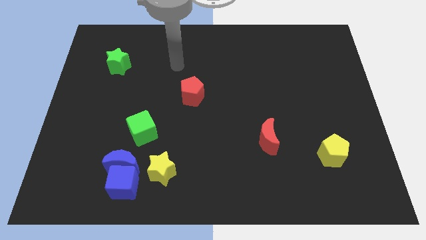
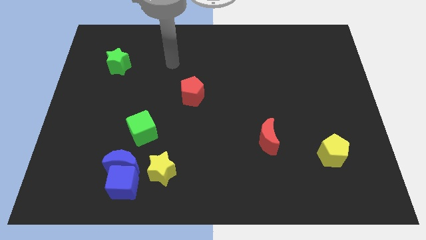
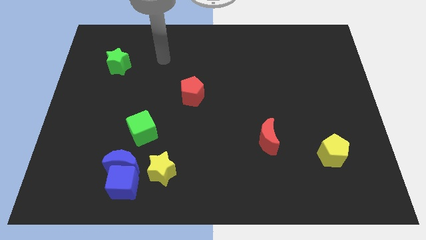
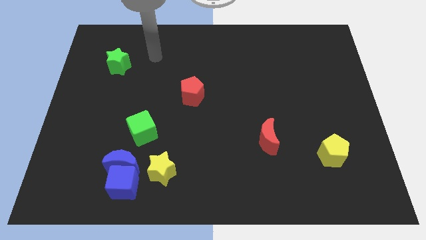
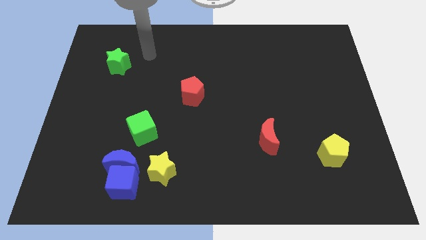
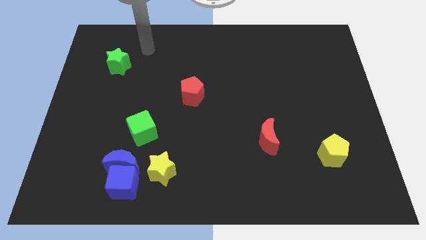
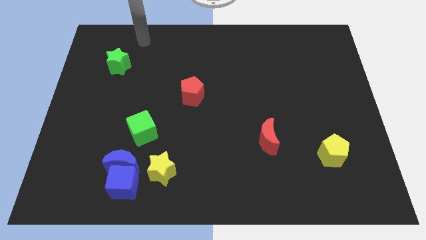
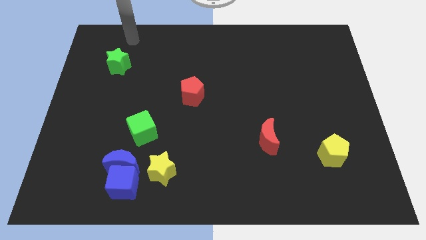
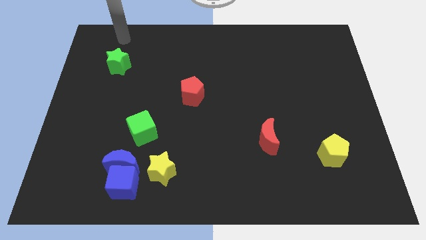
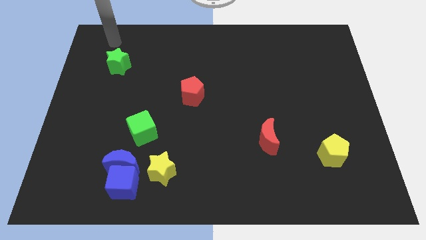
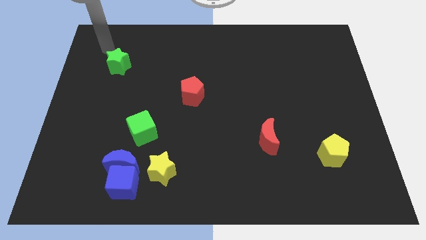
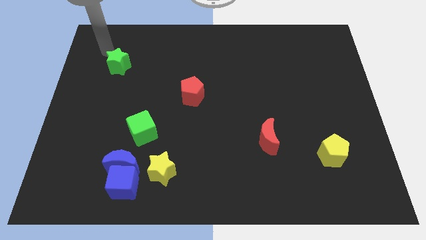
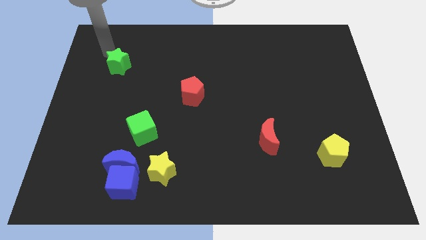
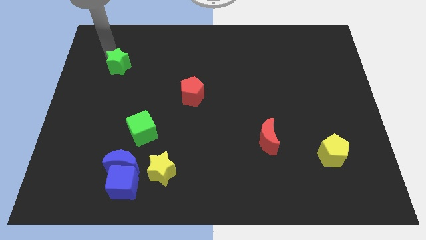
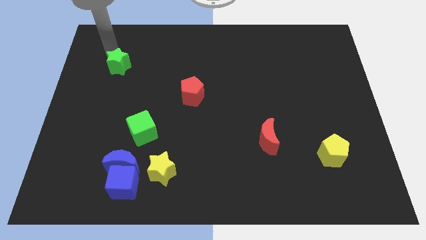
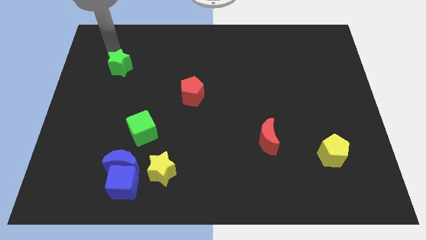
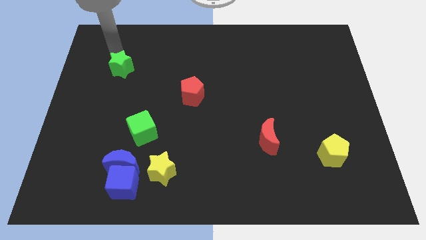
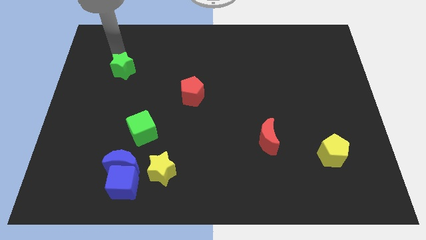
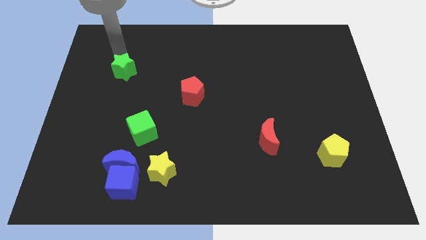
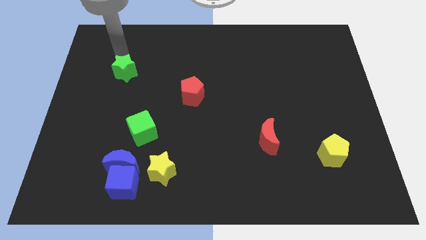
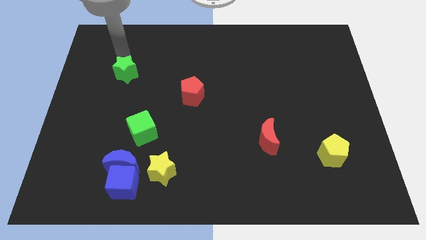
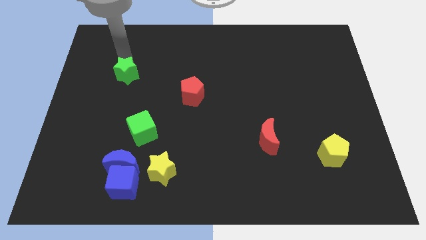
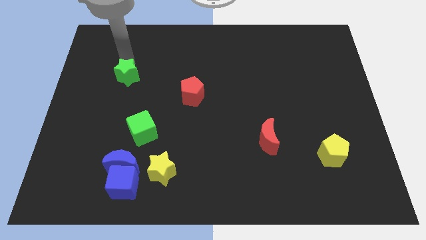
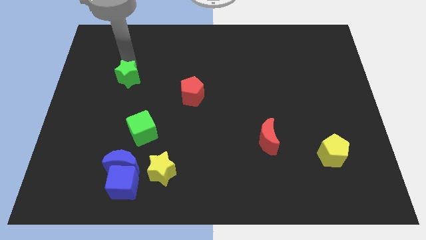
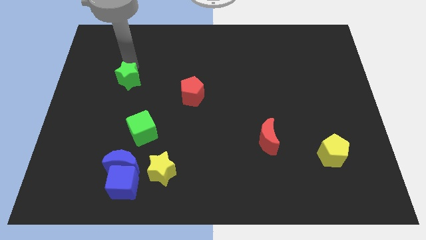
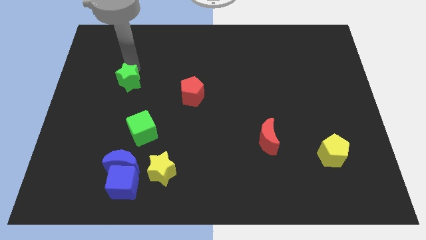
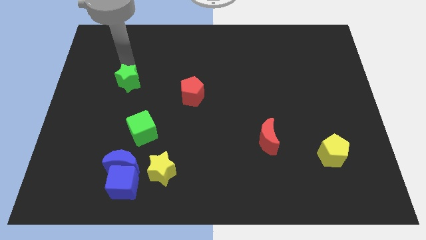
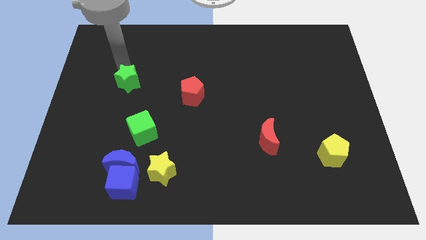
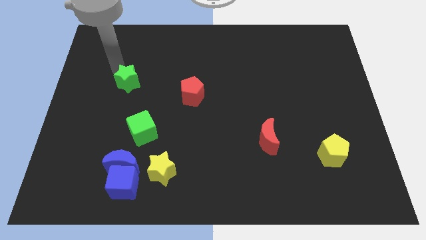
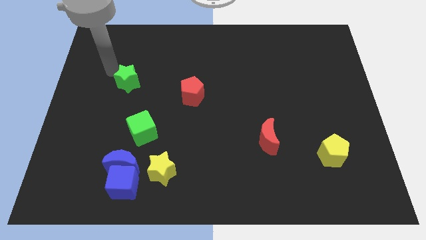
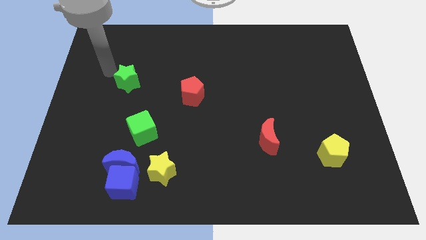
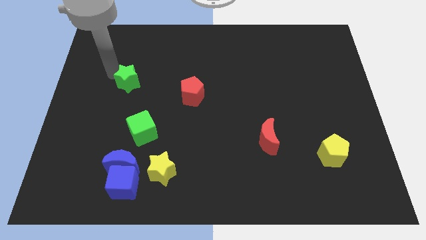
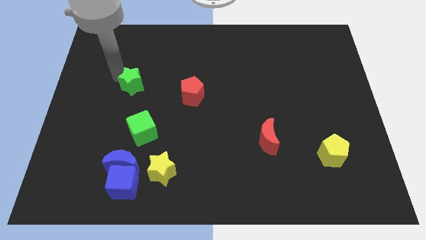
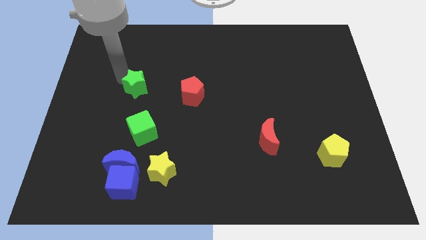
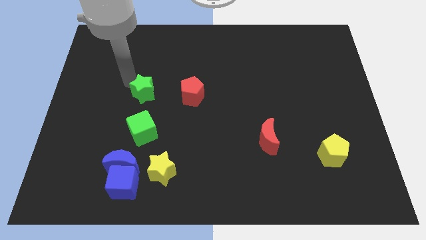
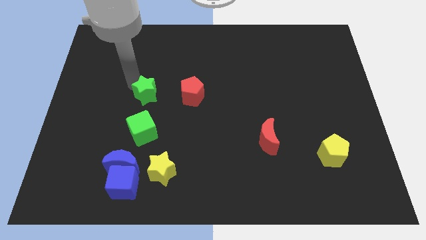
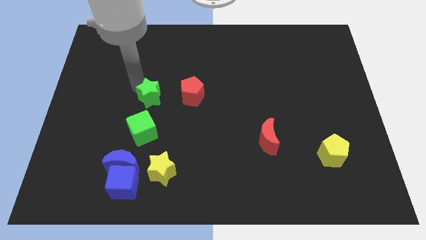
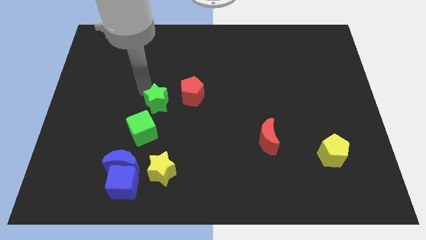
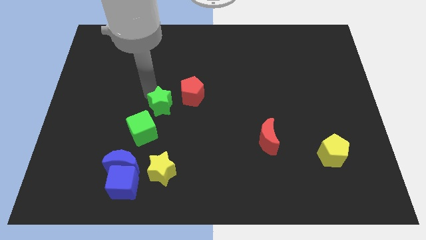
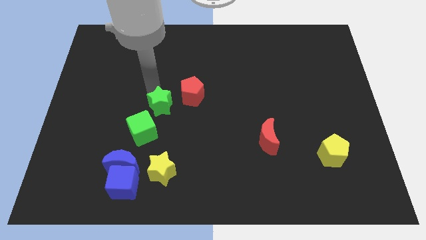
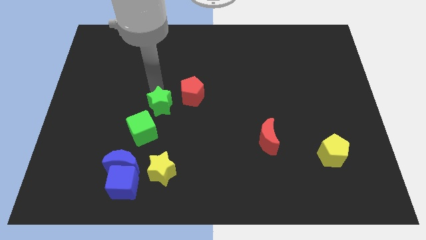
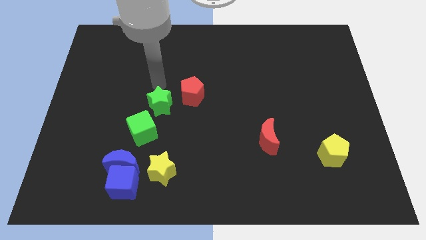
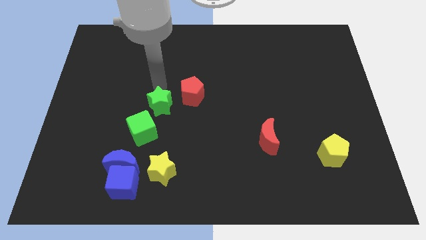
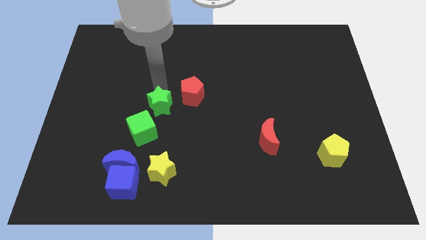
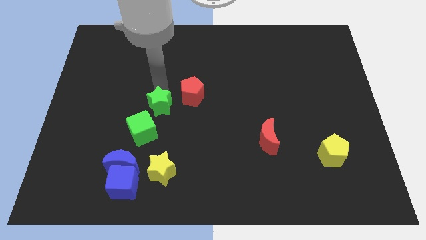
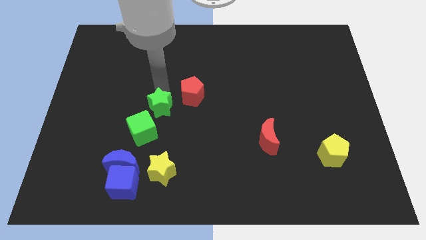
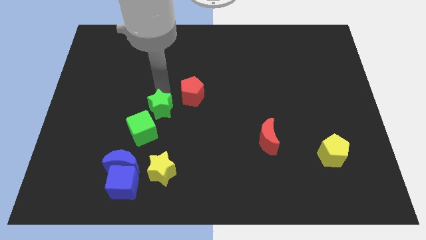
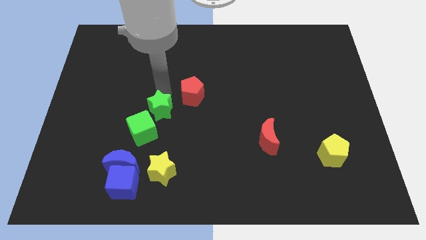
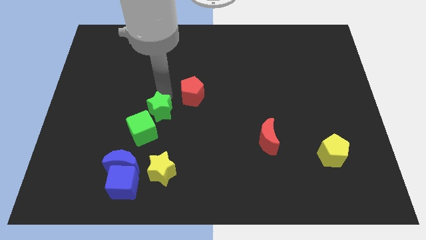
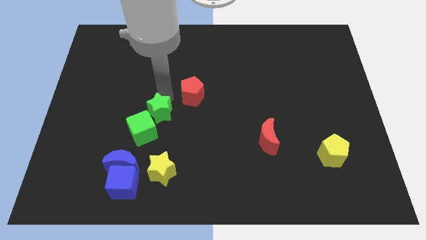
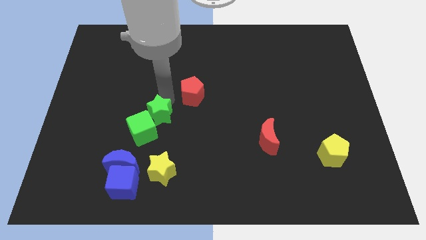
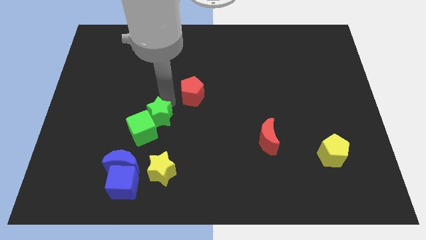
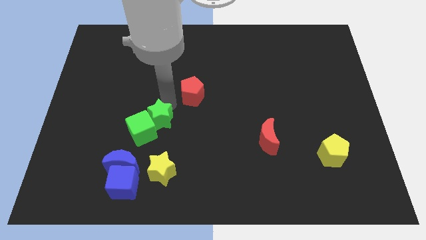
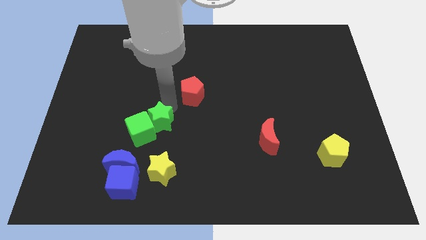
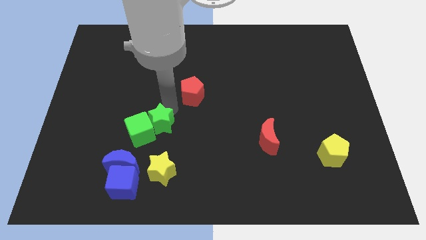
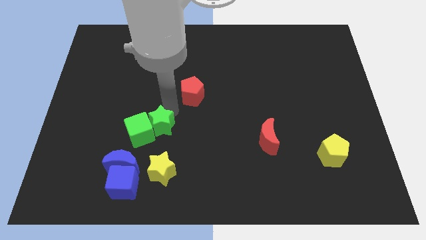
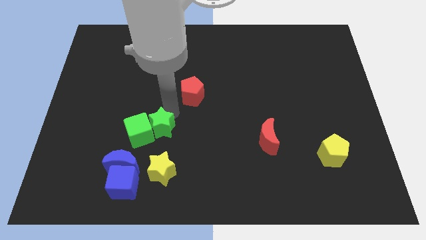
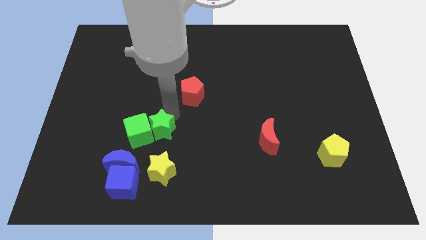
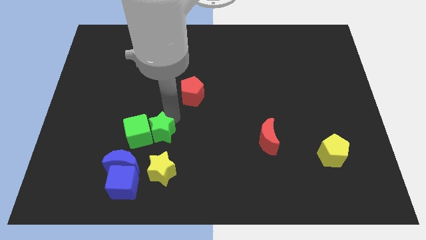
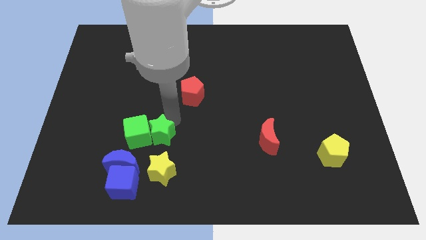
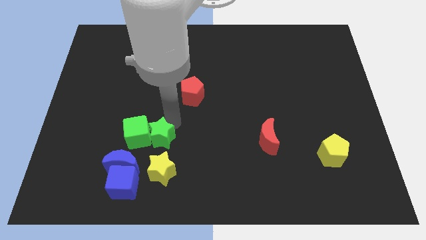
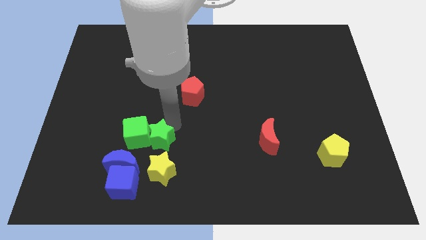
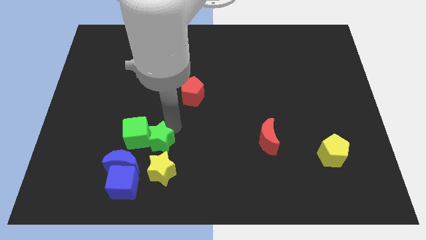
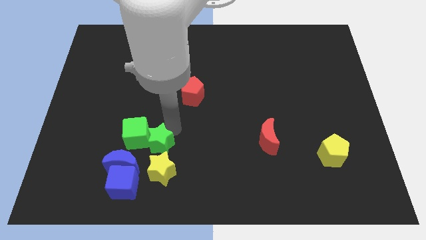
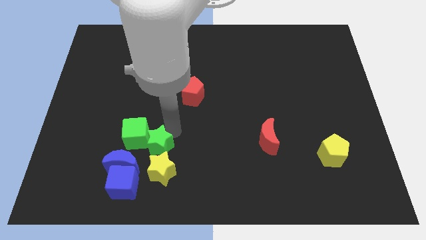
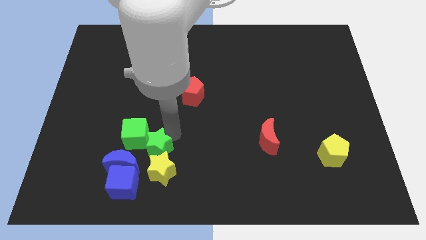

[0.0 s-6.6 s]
push the green star next to the yellow star

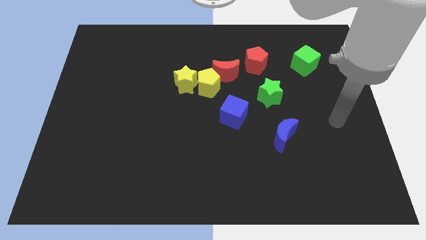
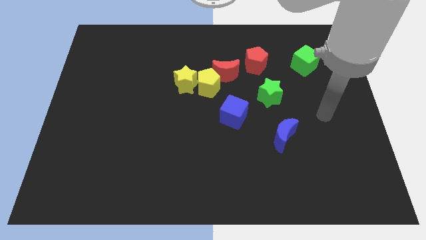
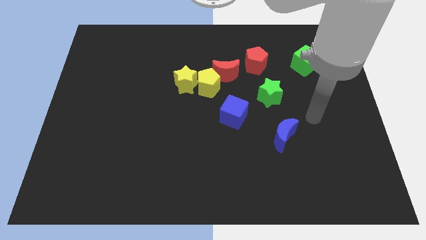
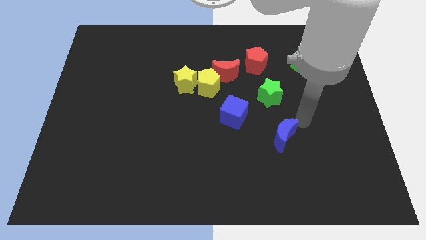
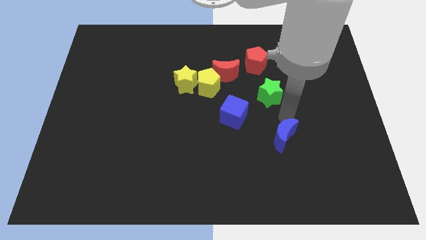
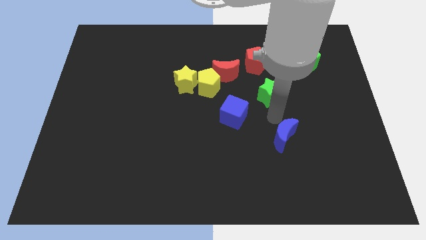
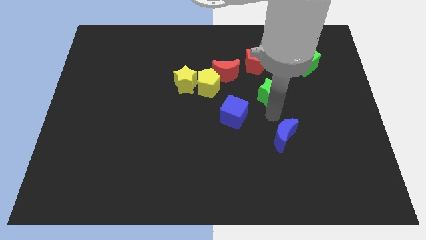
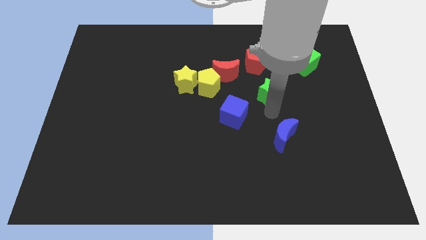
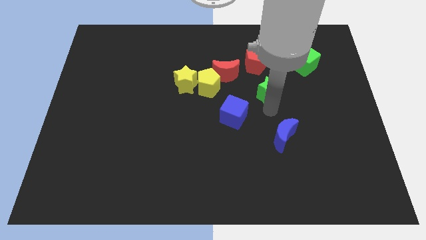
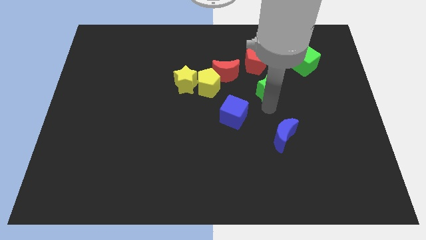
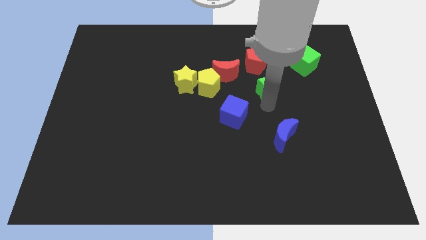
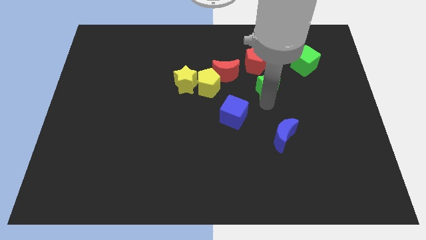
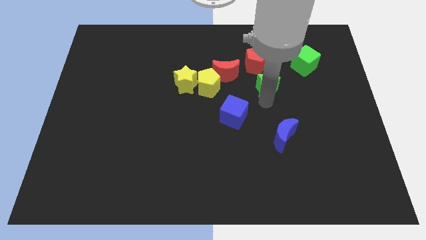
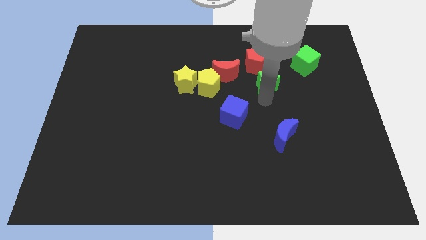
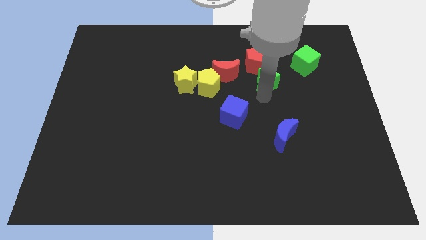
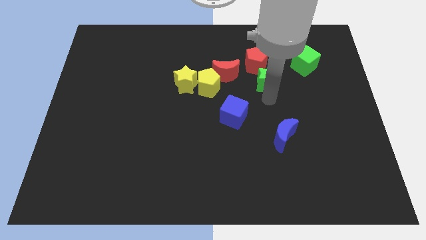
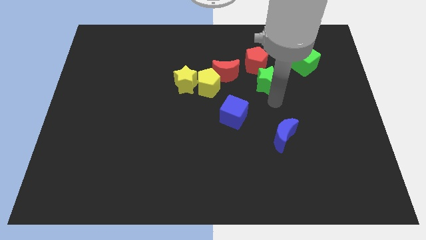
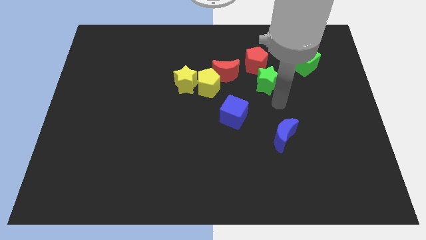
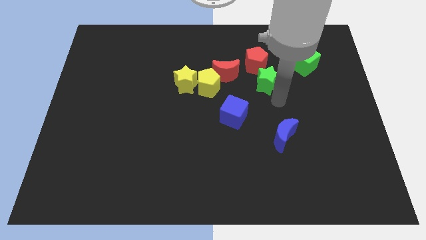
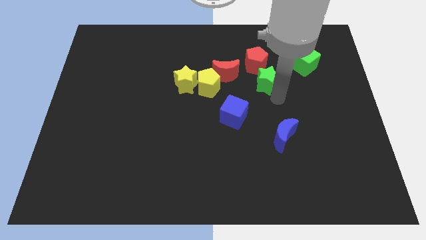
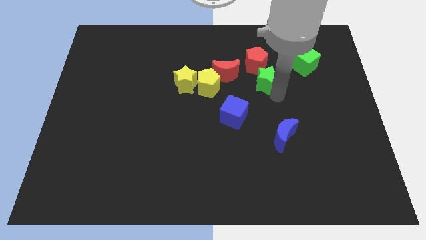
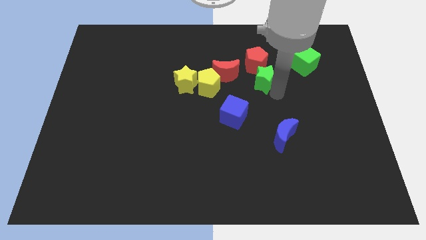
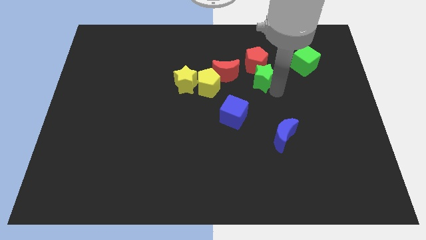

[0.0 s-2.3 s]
slide the green star towards the red pentagon
